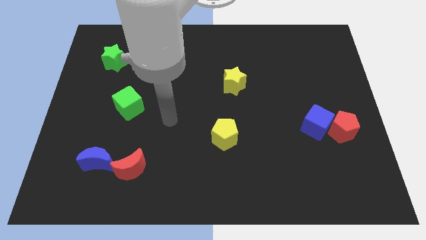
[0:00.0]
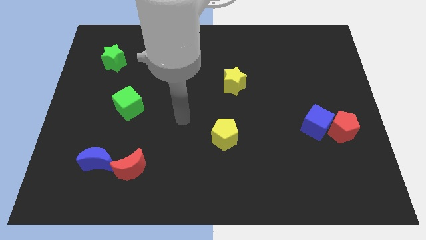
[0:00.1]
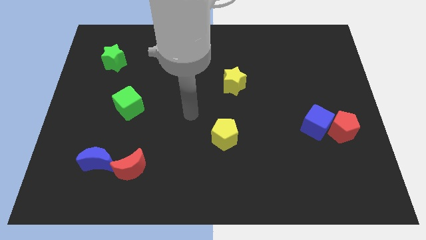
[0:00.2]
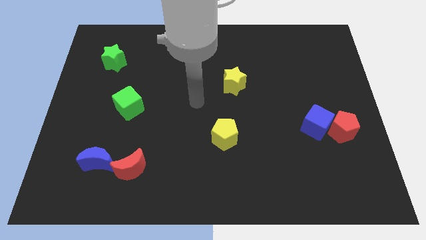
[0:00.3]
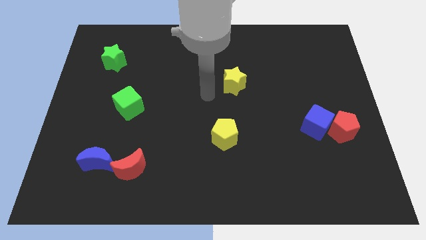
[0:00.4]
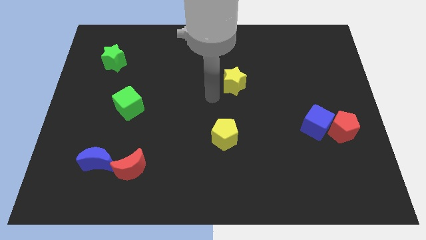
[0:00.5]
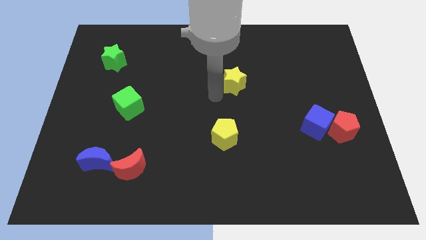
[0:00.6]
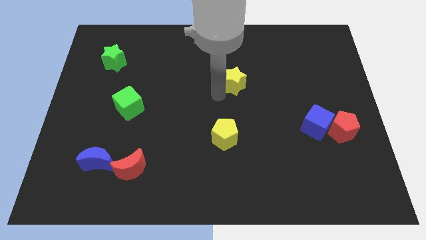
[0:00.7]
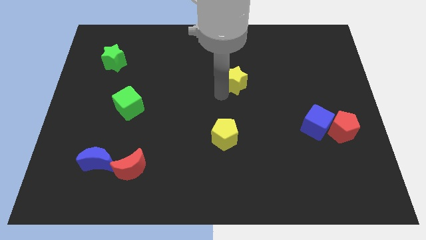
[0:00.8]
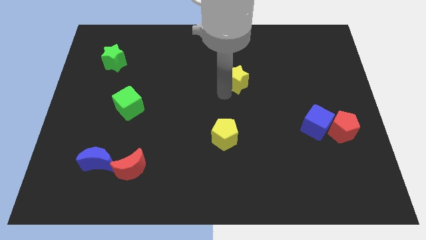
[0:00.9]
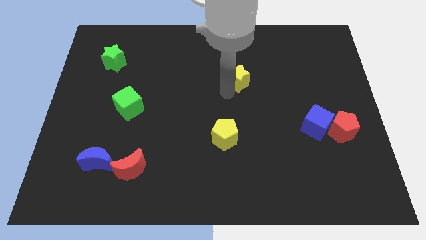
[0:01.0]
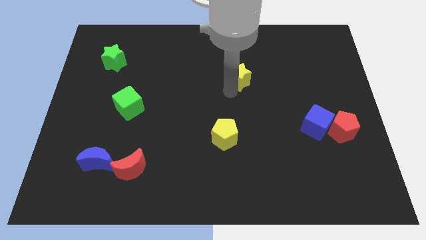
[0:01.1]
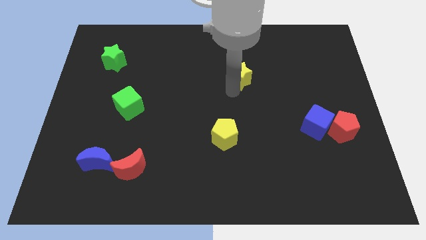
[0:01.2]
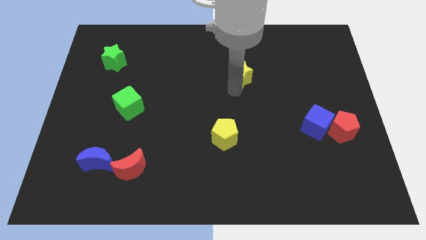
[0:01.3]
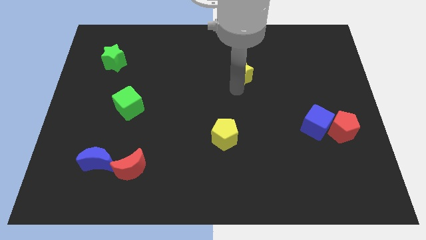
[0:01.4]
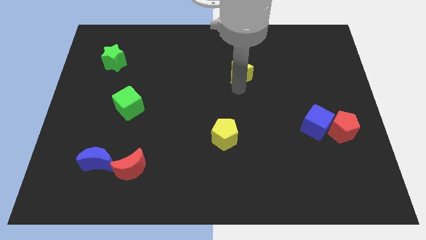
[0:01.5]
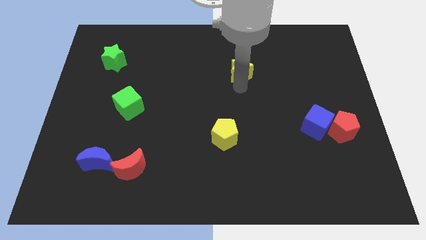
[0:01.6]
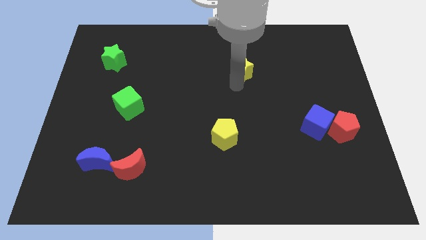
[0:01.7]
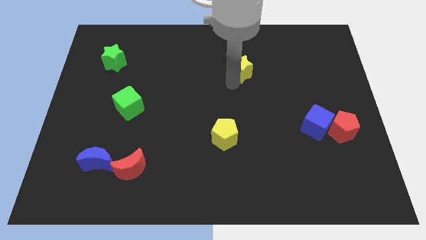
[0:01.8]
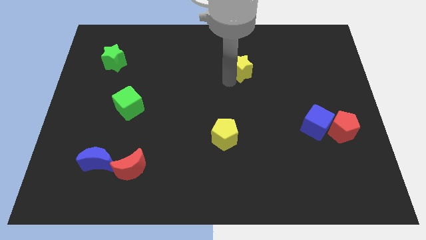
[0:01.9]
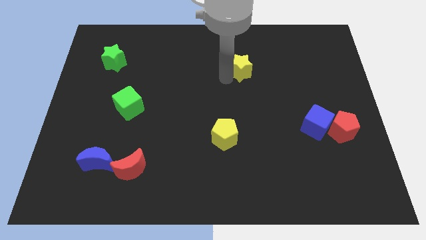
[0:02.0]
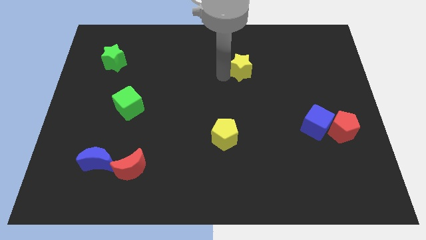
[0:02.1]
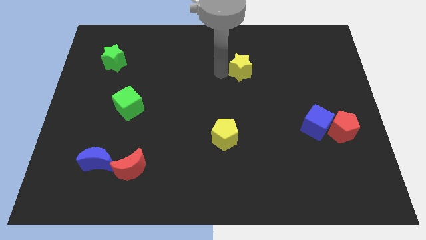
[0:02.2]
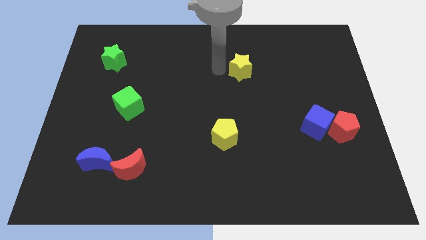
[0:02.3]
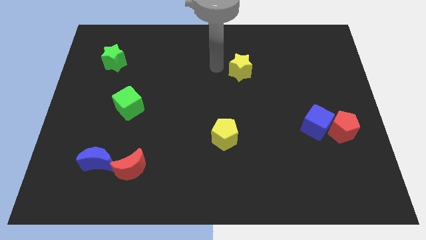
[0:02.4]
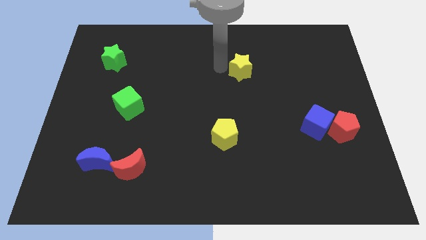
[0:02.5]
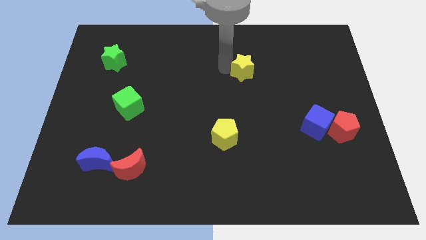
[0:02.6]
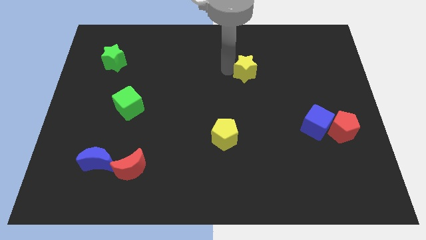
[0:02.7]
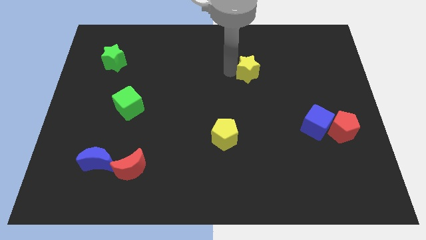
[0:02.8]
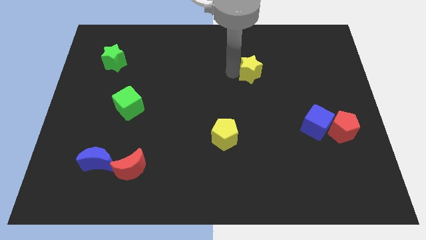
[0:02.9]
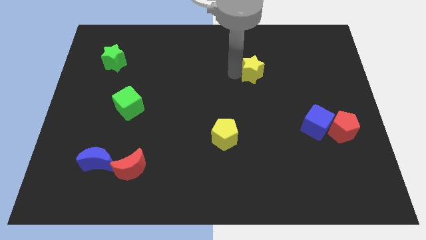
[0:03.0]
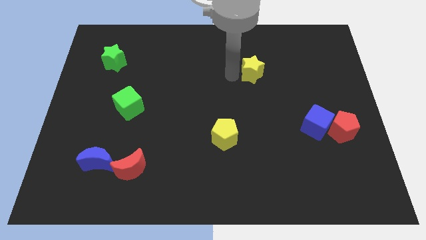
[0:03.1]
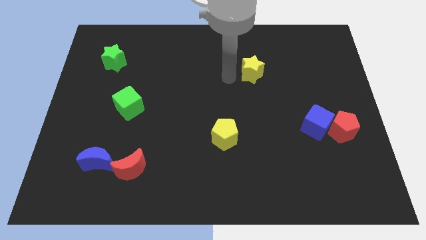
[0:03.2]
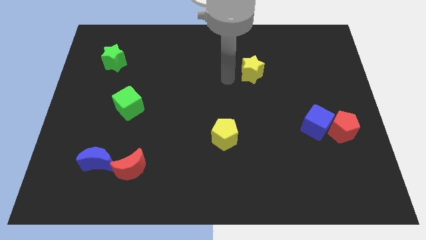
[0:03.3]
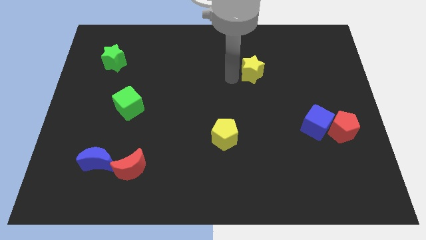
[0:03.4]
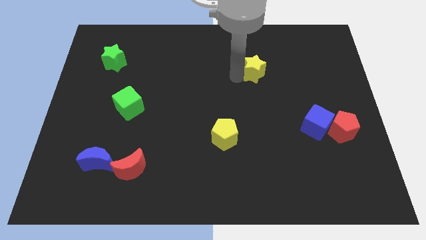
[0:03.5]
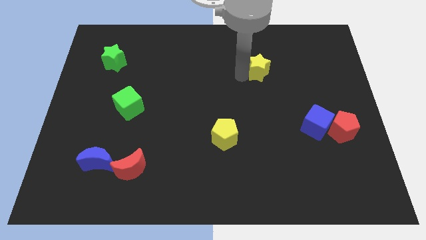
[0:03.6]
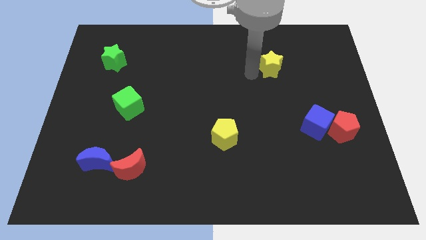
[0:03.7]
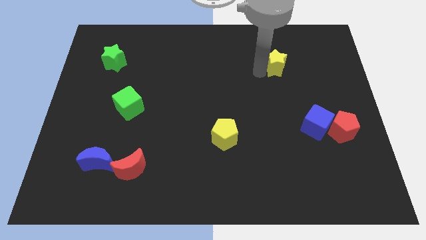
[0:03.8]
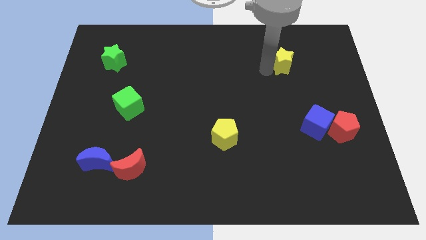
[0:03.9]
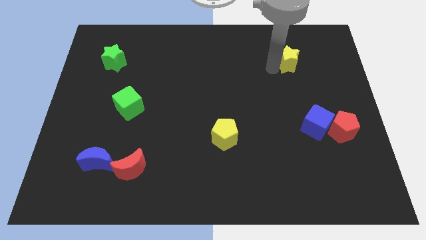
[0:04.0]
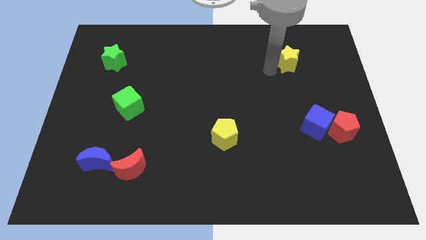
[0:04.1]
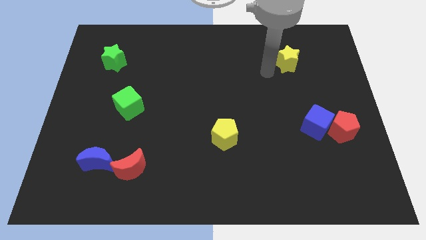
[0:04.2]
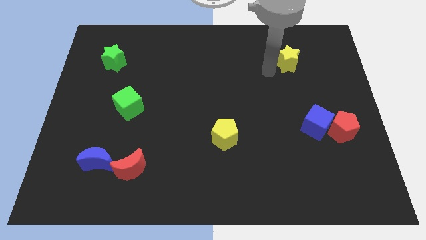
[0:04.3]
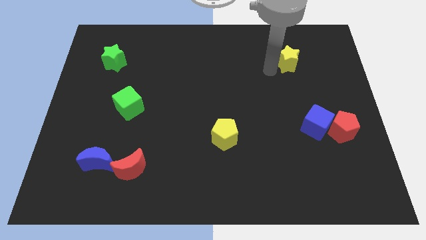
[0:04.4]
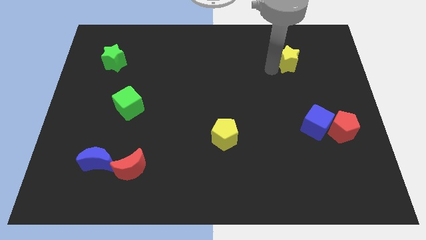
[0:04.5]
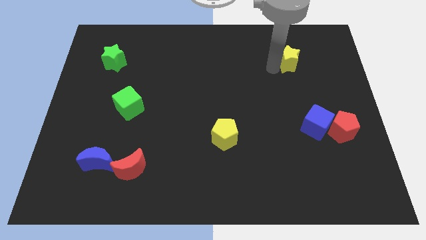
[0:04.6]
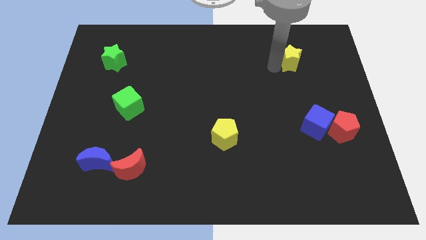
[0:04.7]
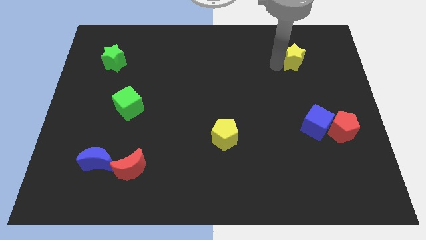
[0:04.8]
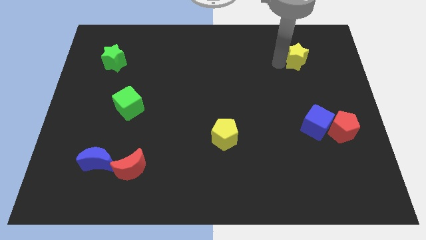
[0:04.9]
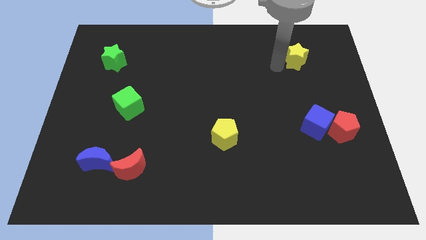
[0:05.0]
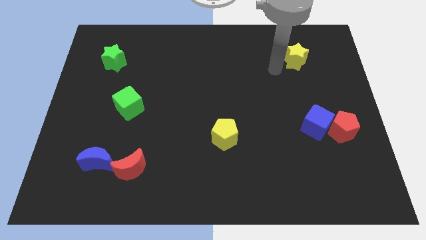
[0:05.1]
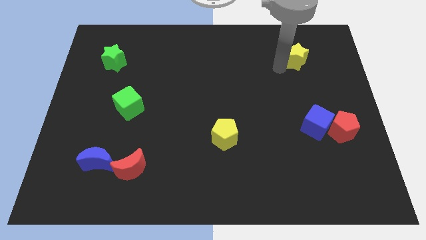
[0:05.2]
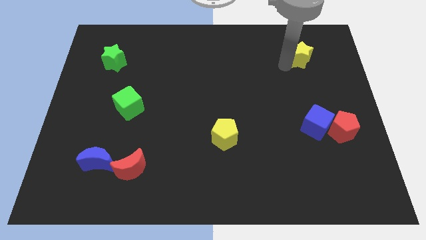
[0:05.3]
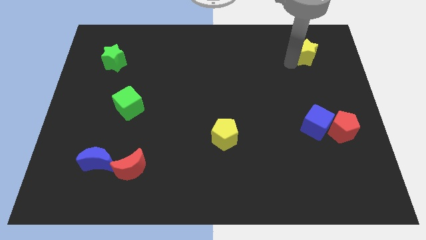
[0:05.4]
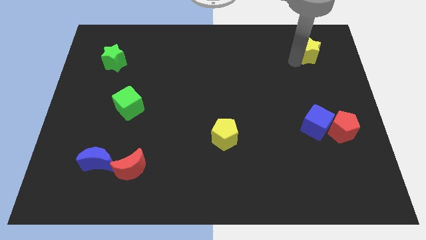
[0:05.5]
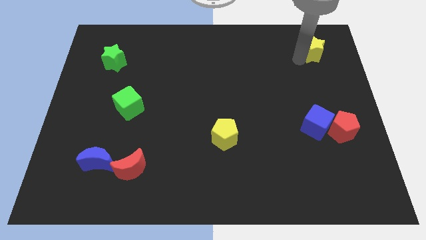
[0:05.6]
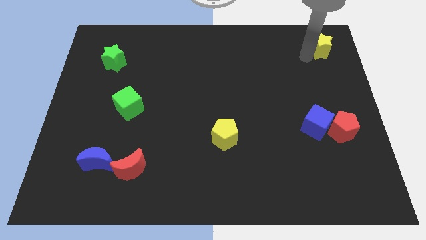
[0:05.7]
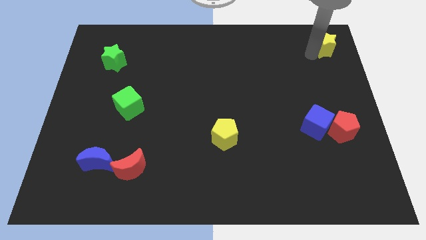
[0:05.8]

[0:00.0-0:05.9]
put the yellow star to the top right
